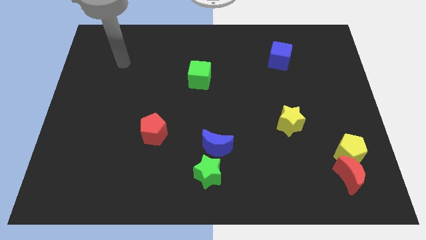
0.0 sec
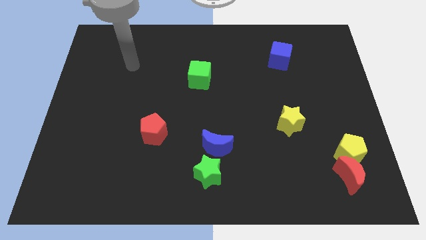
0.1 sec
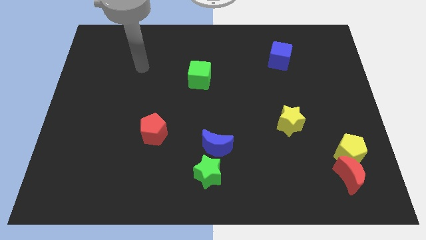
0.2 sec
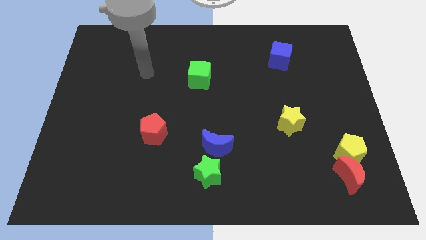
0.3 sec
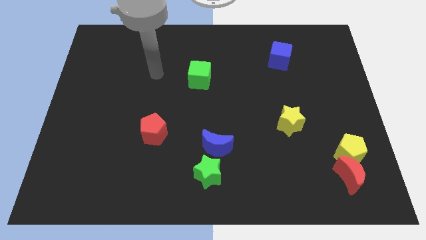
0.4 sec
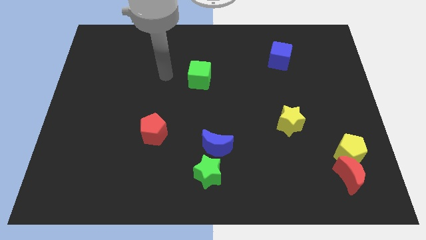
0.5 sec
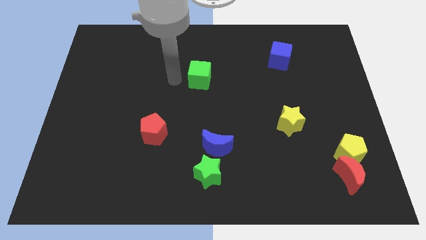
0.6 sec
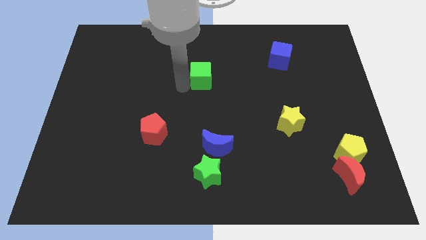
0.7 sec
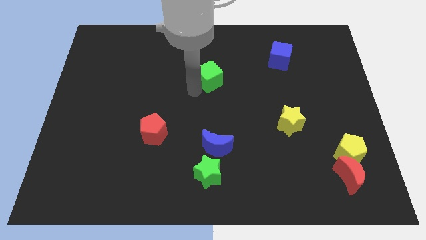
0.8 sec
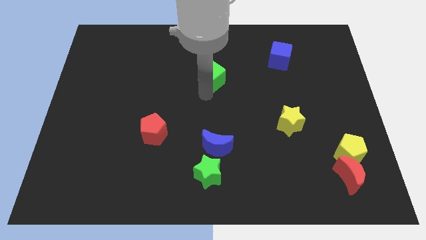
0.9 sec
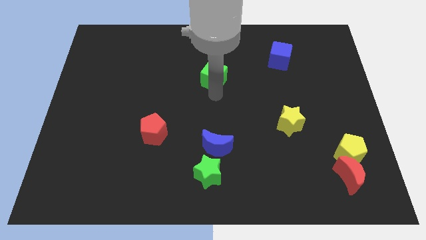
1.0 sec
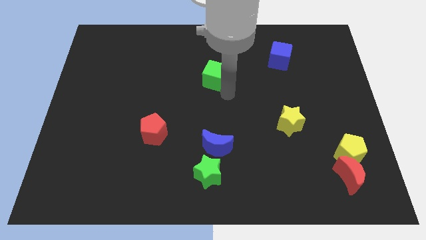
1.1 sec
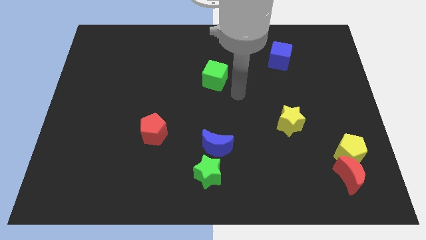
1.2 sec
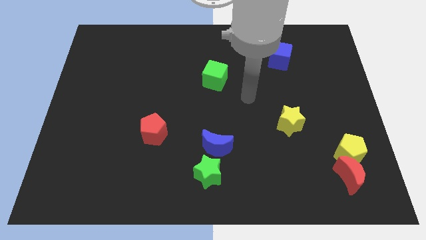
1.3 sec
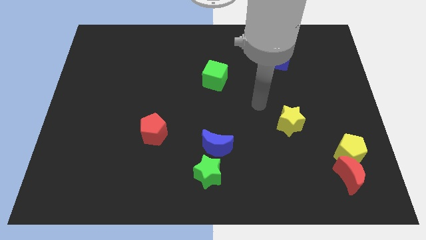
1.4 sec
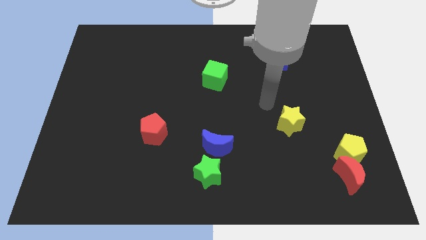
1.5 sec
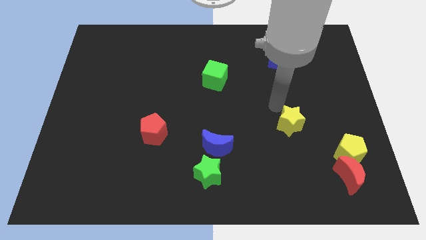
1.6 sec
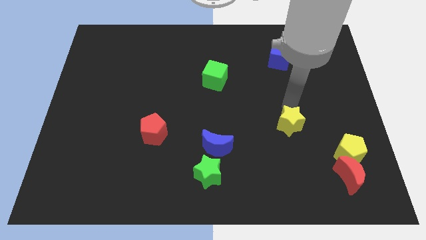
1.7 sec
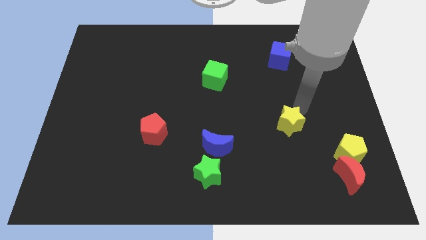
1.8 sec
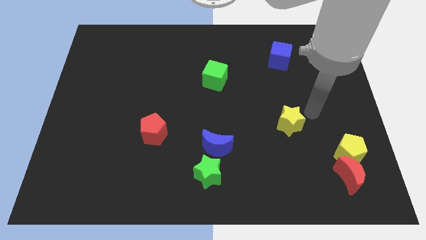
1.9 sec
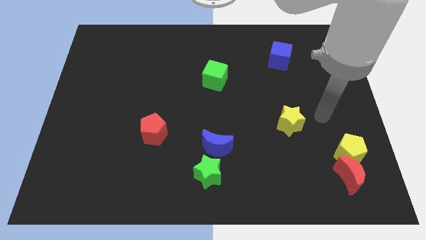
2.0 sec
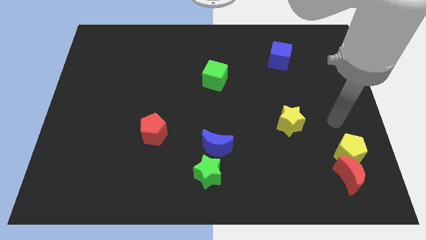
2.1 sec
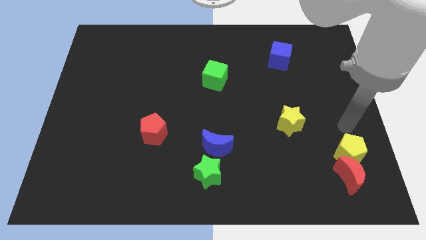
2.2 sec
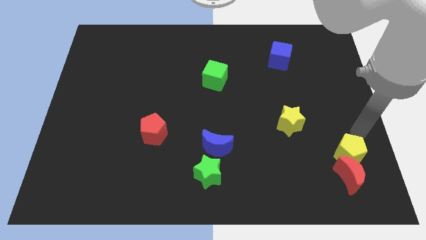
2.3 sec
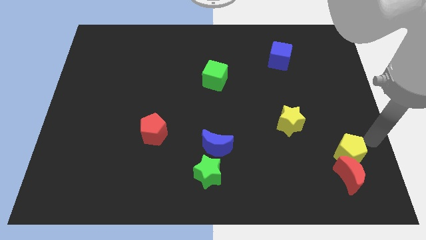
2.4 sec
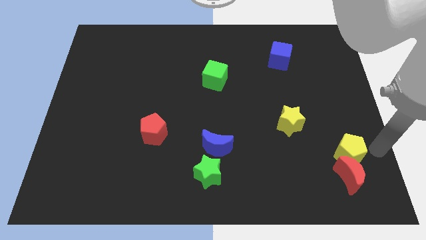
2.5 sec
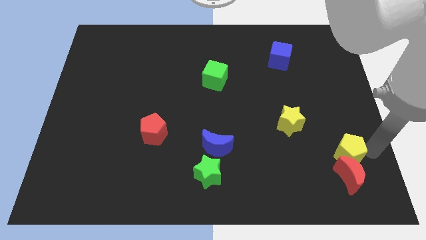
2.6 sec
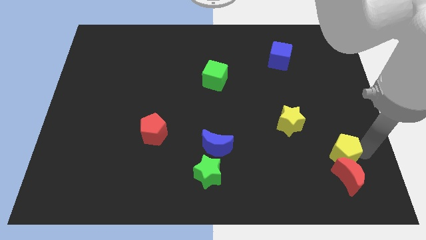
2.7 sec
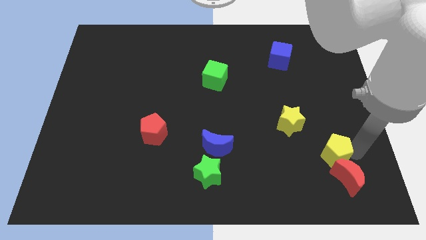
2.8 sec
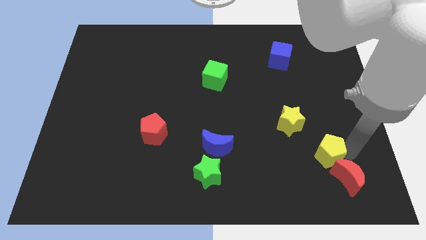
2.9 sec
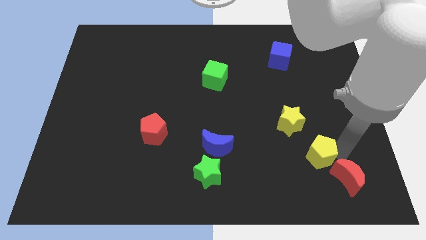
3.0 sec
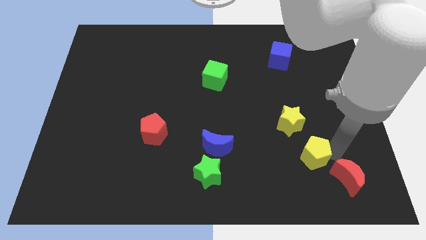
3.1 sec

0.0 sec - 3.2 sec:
slightly move the yellow pentagon to the left

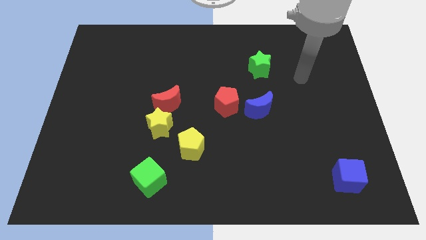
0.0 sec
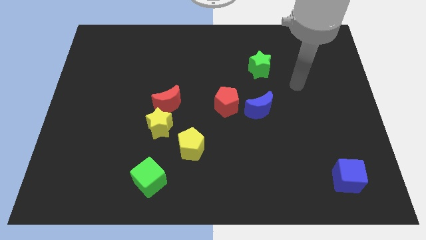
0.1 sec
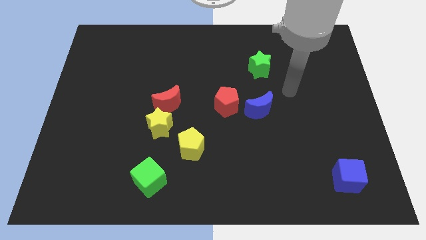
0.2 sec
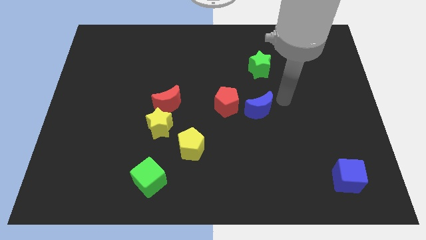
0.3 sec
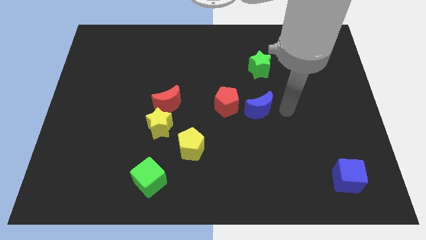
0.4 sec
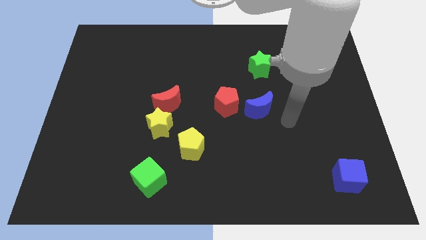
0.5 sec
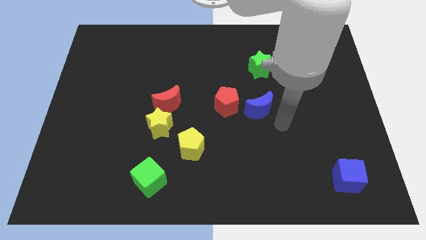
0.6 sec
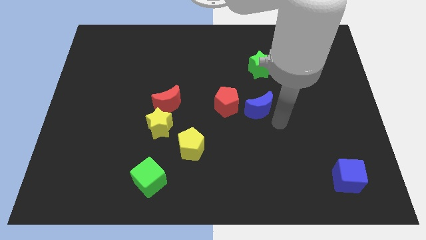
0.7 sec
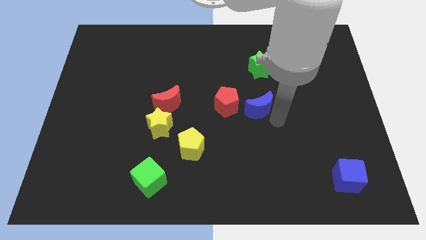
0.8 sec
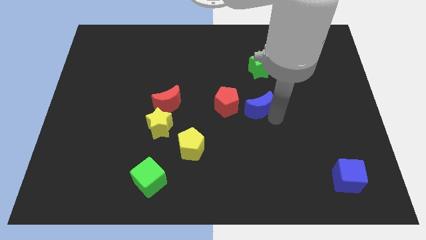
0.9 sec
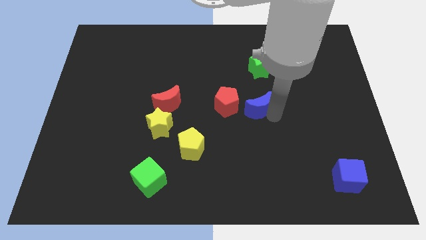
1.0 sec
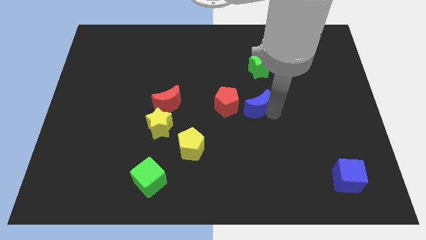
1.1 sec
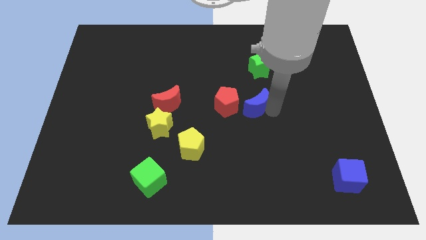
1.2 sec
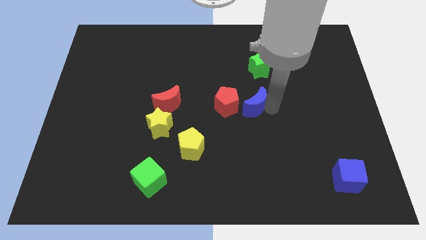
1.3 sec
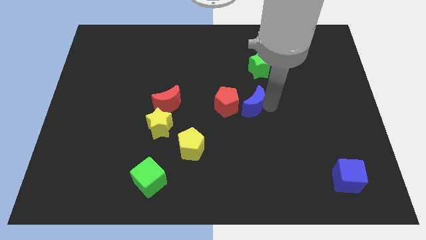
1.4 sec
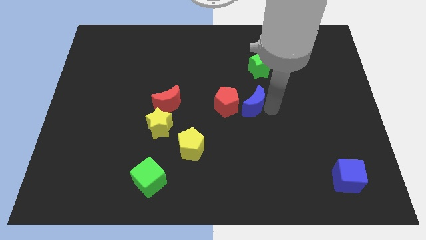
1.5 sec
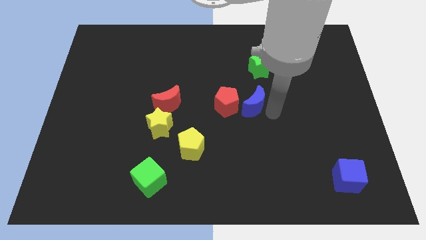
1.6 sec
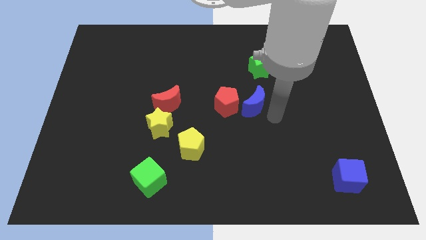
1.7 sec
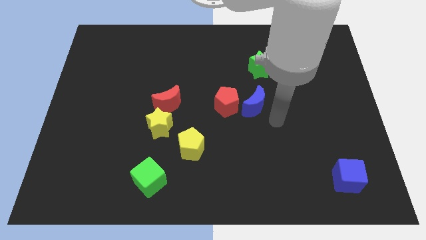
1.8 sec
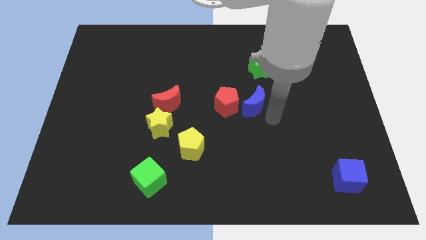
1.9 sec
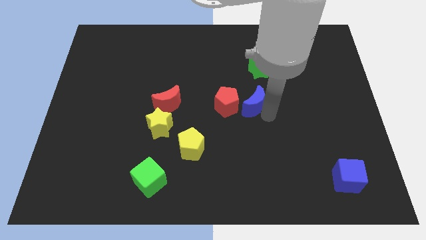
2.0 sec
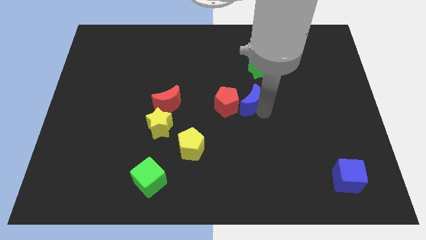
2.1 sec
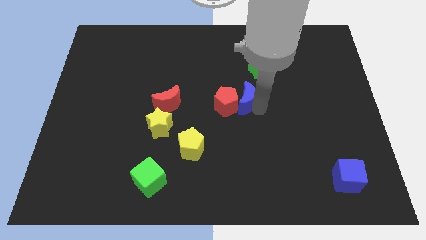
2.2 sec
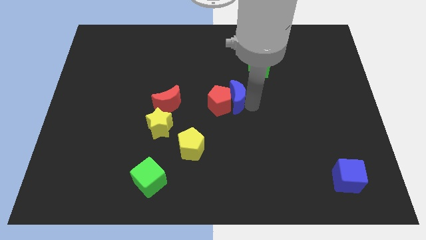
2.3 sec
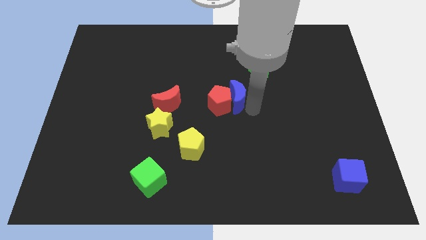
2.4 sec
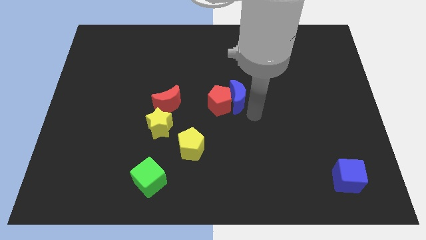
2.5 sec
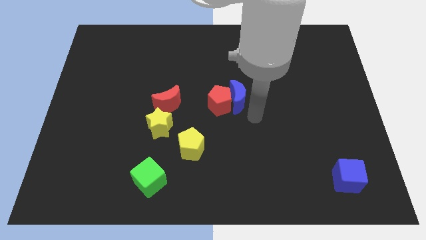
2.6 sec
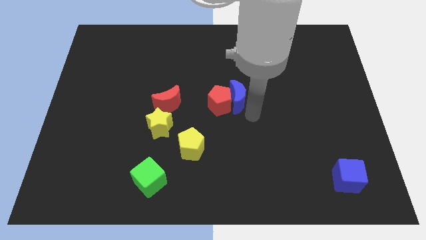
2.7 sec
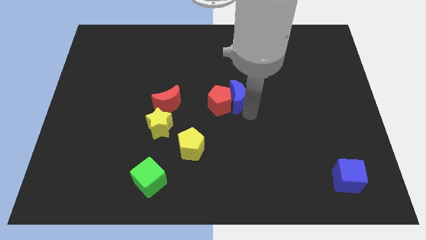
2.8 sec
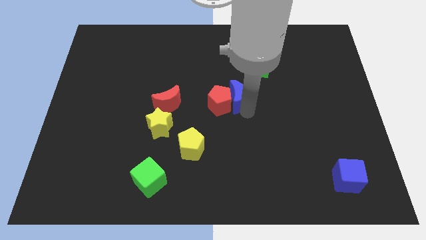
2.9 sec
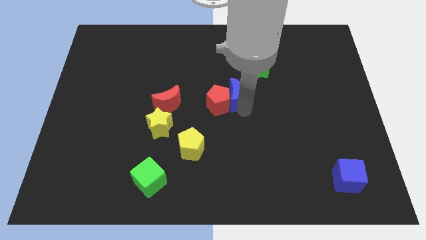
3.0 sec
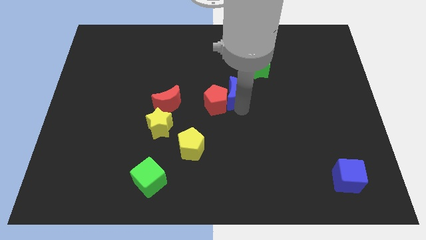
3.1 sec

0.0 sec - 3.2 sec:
push the blue moon diagonally upwards and to the left somewhat

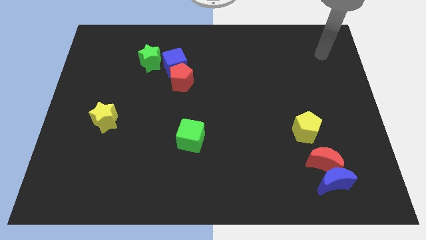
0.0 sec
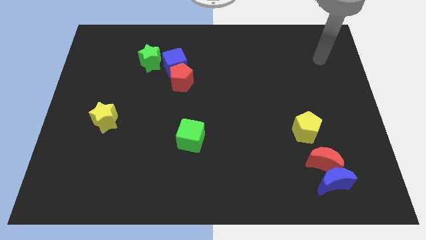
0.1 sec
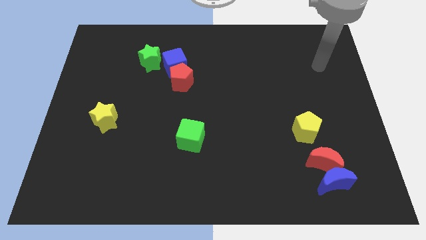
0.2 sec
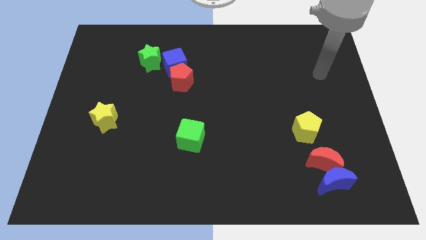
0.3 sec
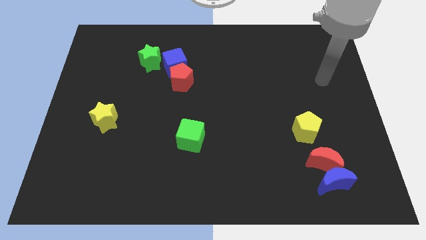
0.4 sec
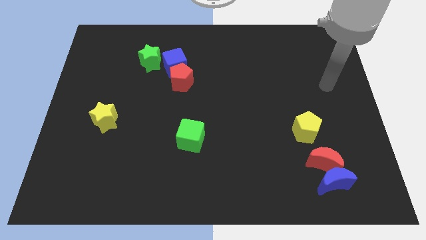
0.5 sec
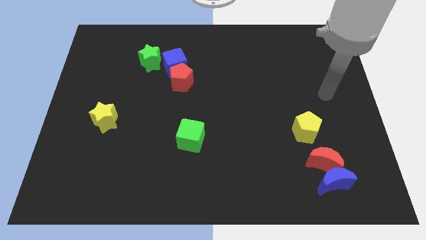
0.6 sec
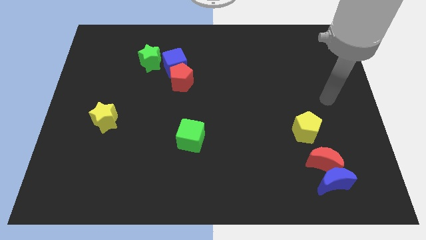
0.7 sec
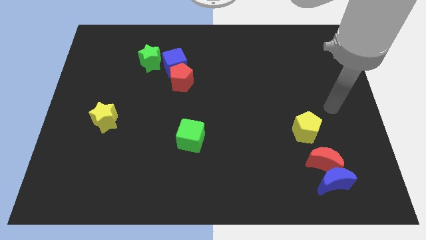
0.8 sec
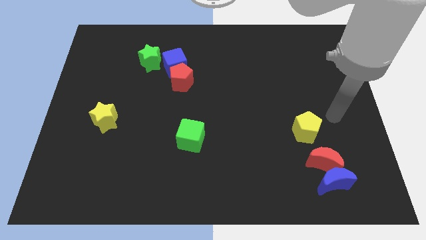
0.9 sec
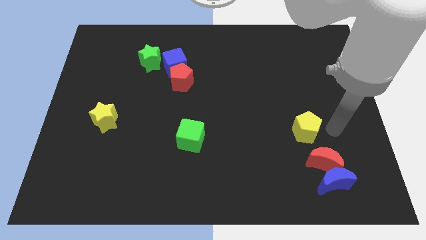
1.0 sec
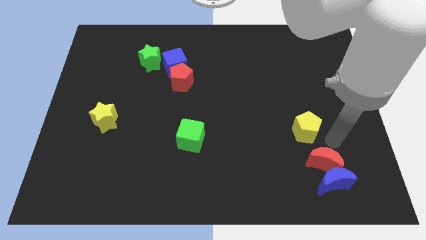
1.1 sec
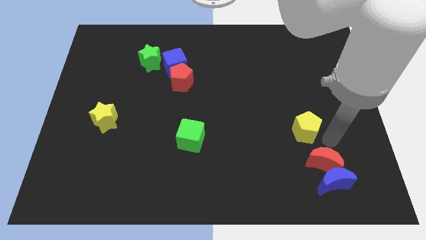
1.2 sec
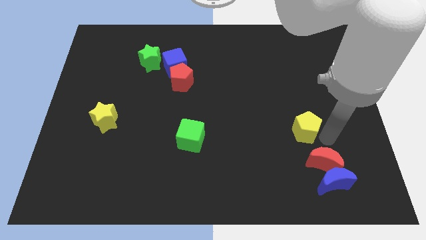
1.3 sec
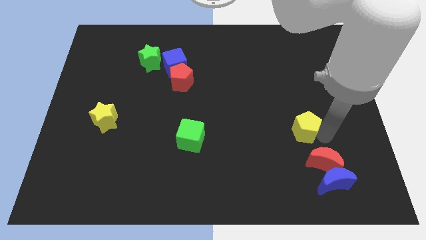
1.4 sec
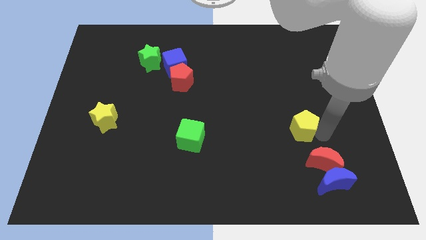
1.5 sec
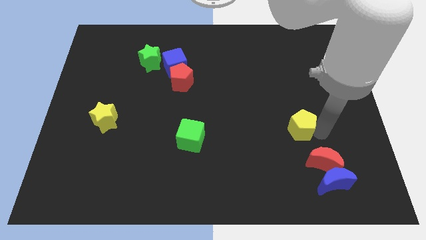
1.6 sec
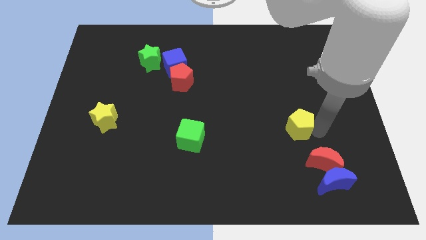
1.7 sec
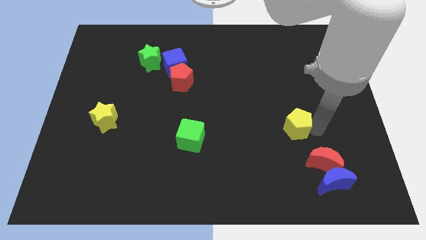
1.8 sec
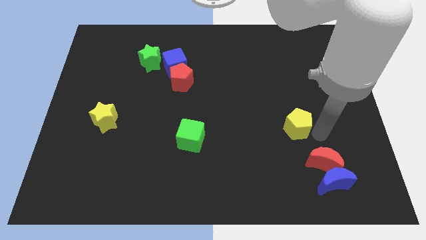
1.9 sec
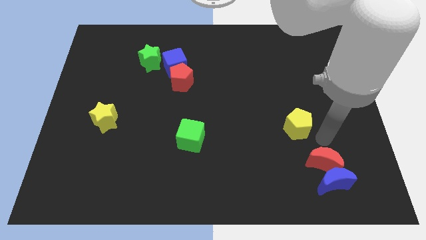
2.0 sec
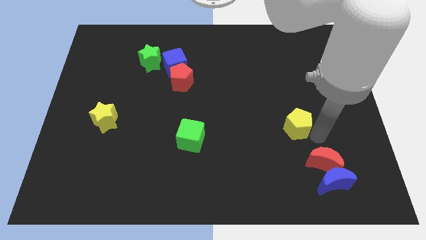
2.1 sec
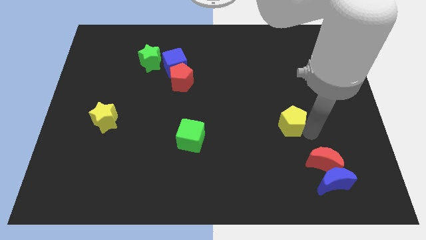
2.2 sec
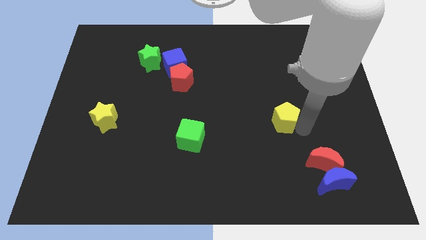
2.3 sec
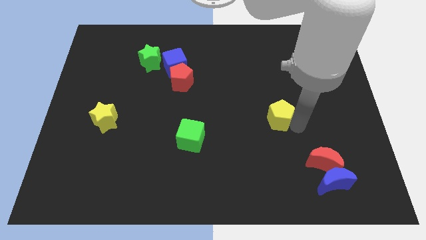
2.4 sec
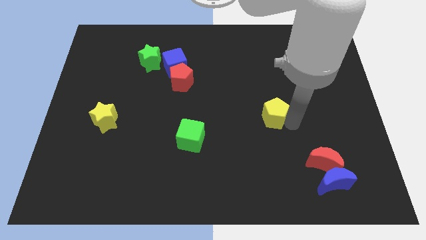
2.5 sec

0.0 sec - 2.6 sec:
push the yellow pentagon upwards and left diagonally slightly
